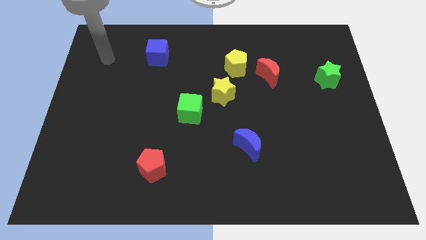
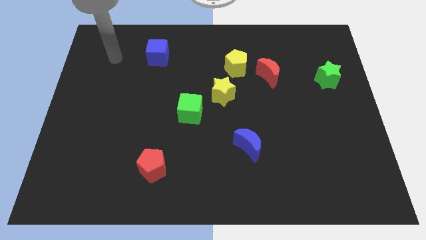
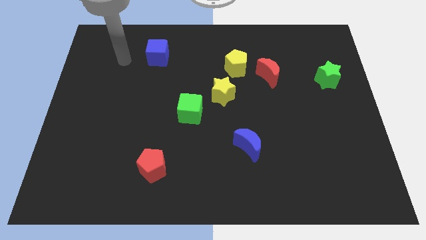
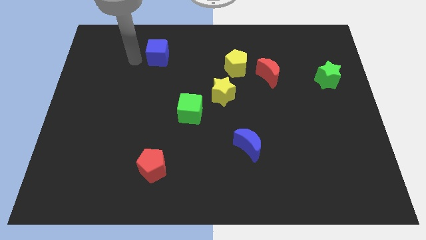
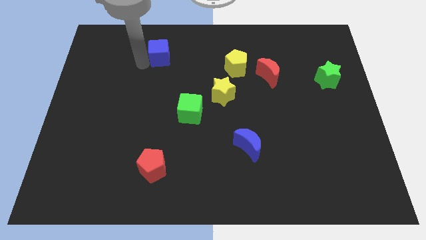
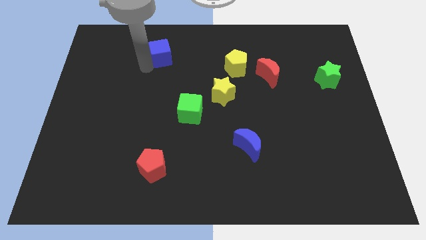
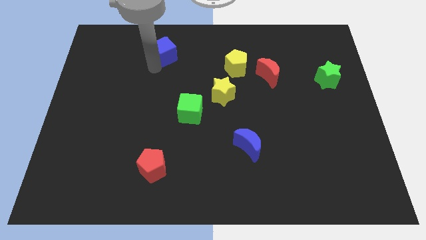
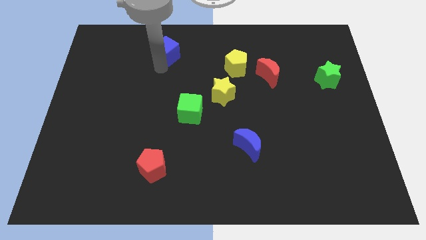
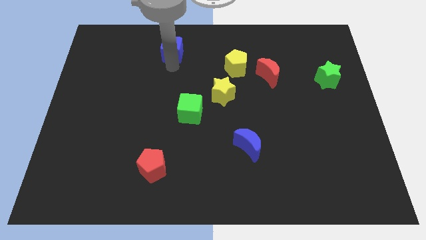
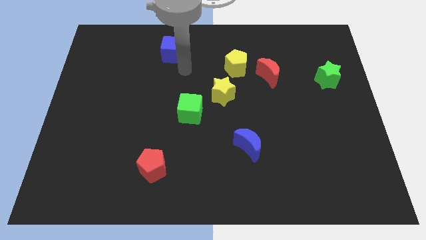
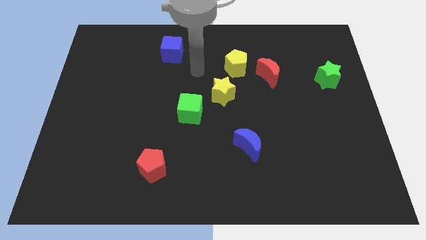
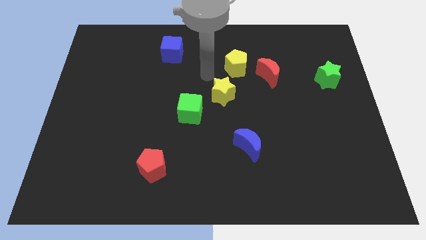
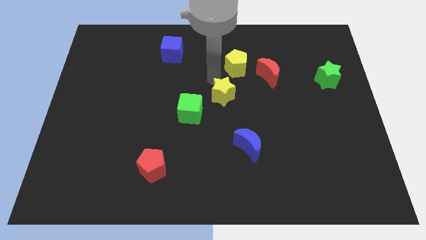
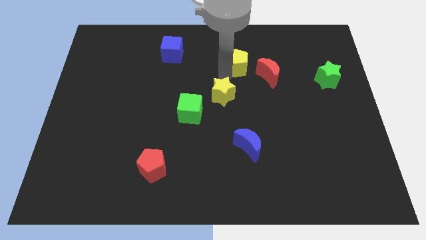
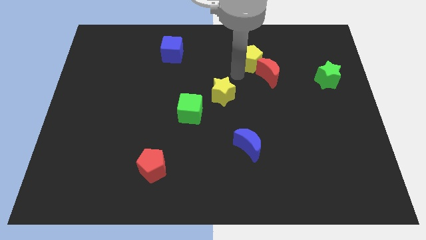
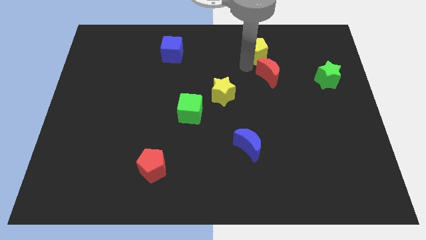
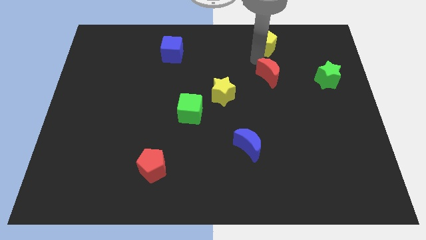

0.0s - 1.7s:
separate the red moon from the yellow pentagon

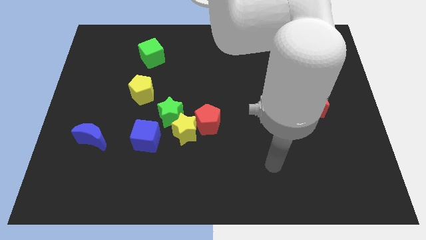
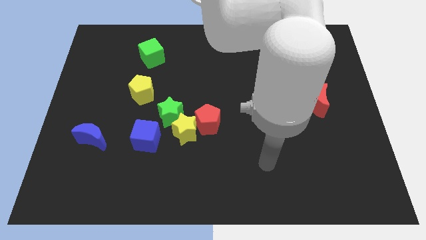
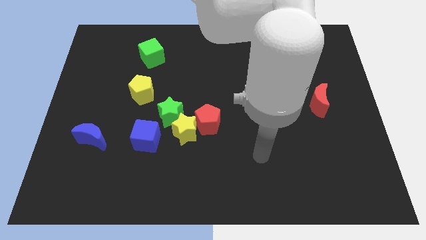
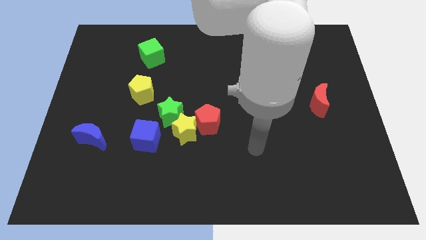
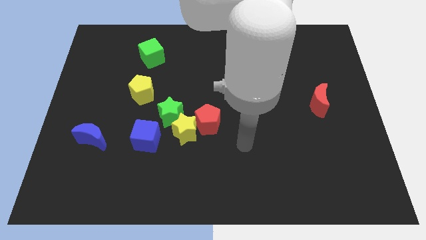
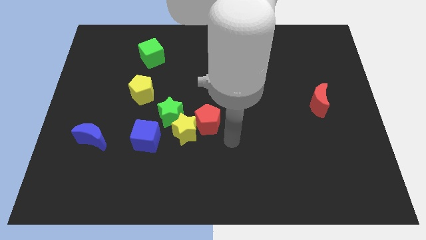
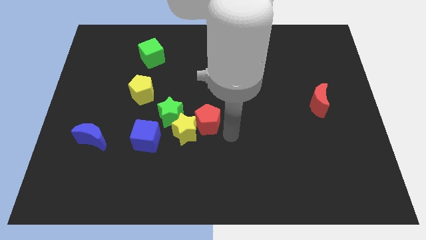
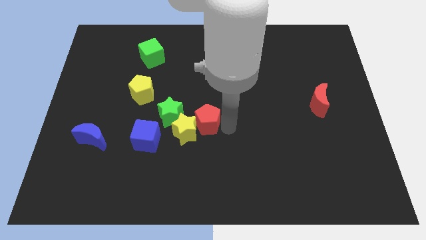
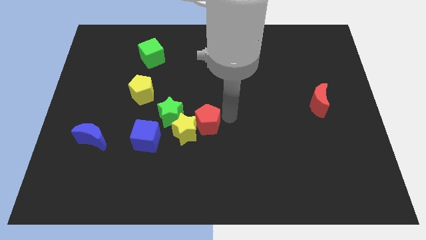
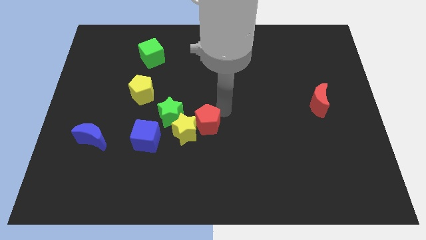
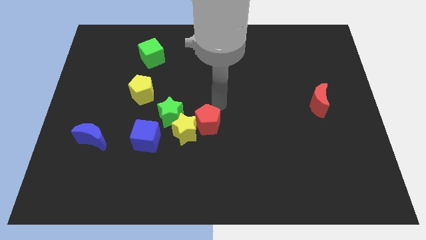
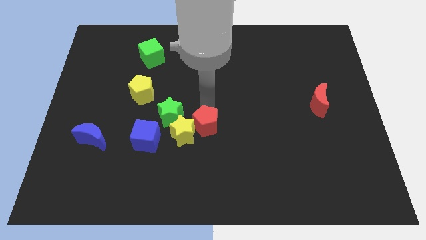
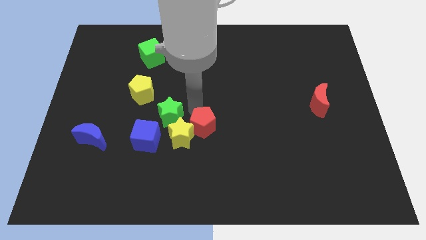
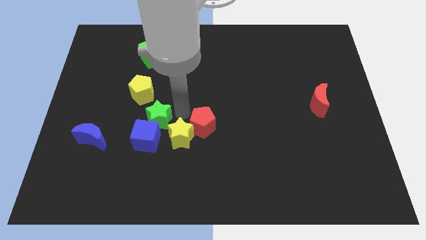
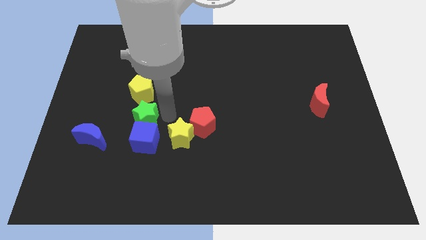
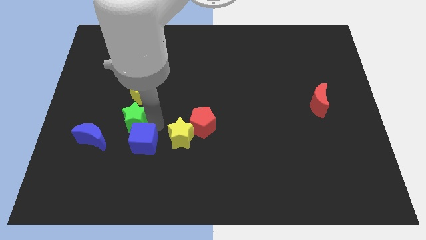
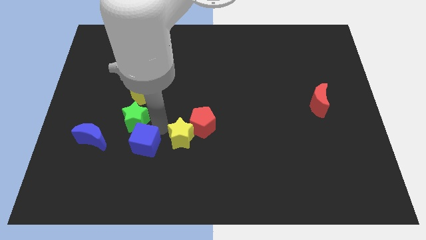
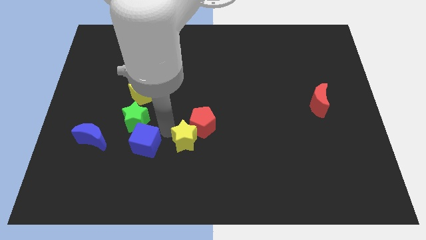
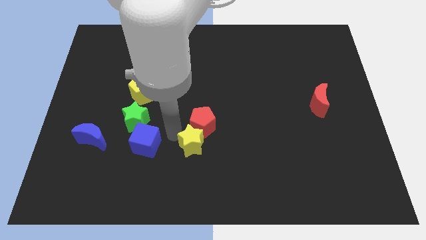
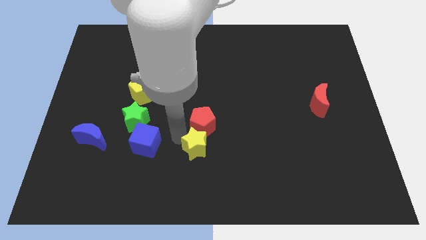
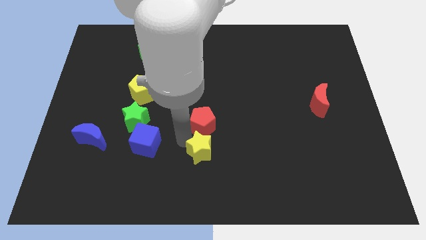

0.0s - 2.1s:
separate the yellow star from the group of blocks

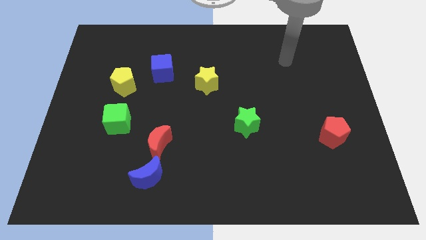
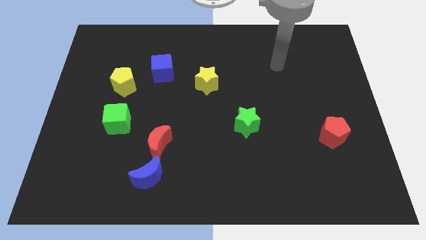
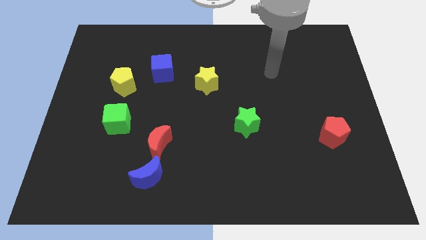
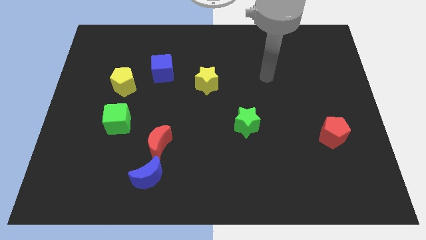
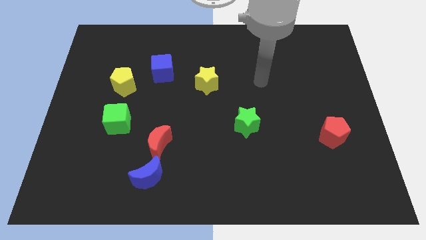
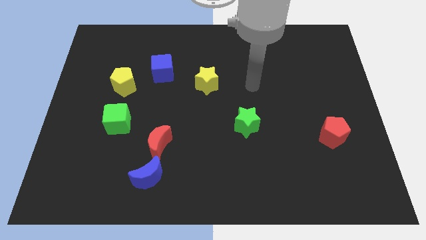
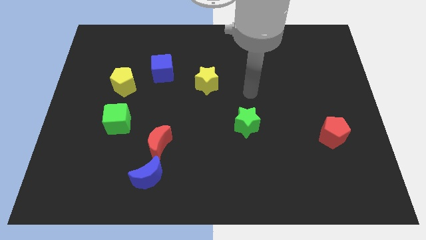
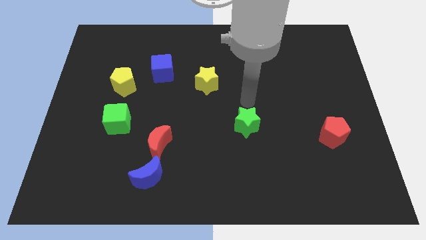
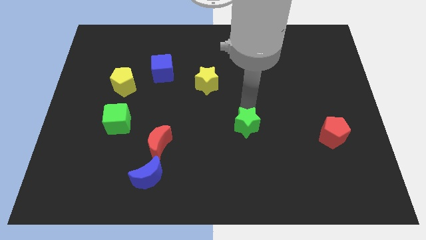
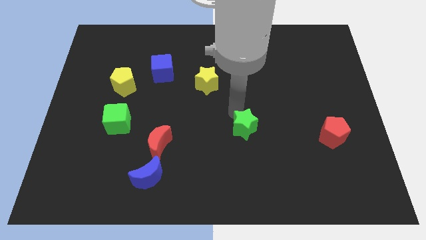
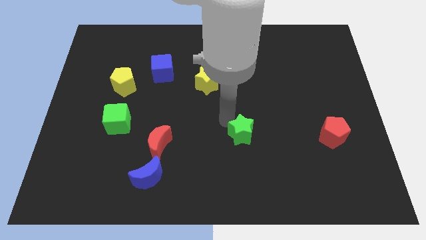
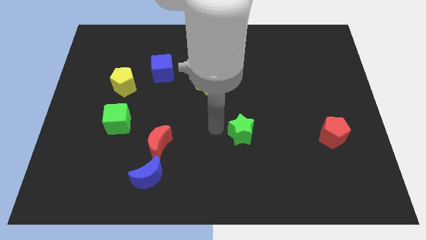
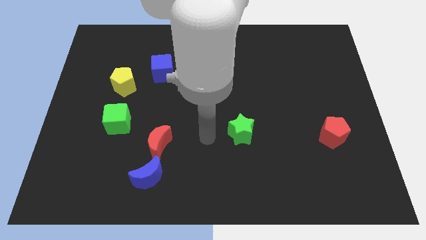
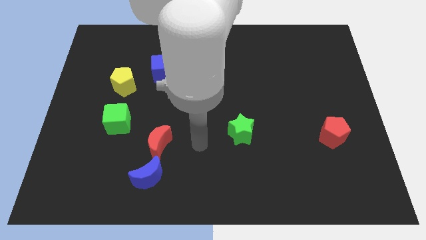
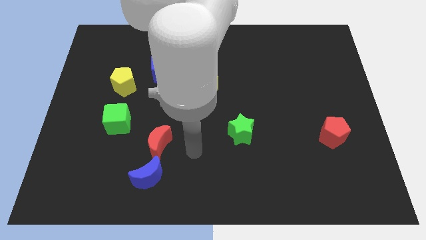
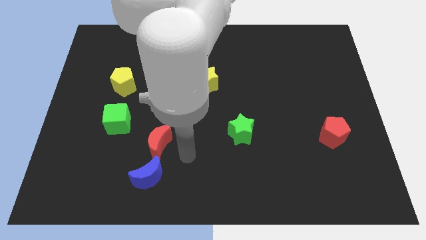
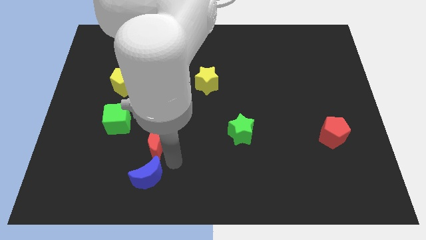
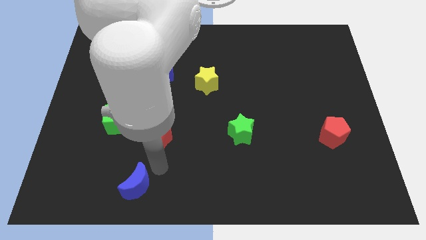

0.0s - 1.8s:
separate the red moon from the blue moon

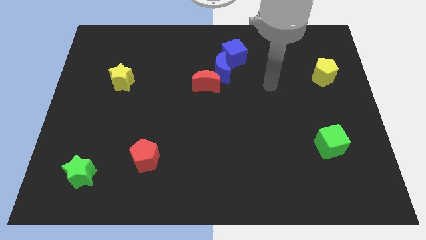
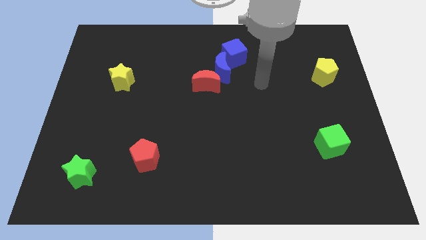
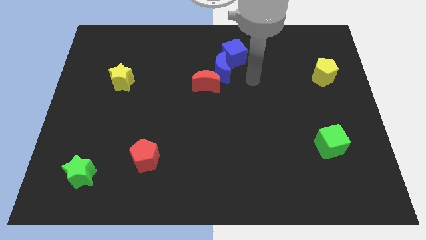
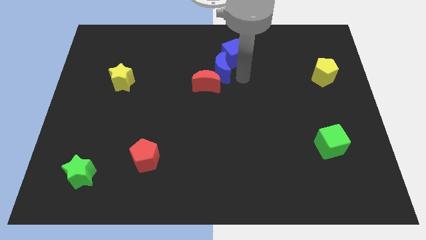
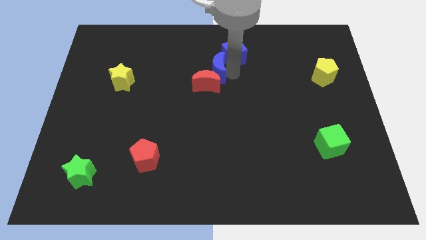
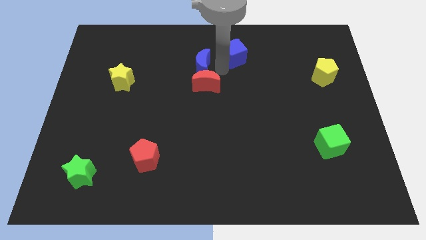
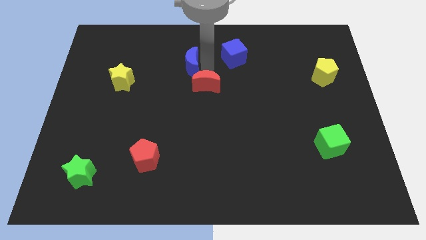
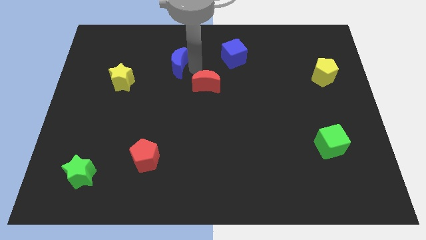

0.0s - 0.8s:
move the red moon away from the blue moon

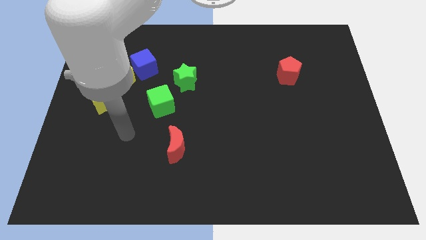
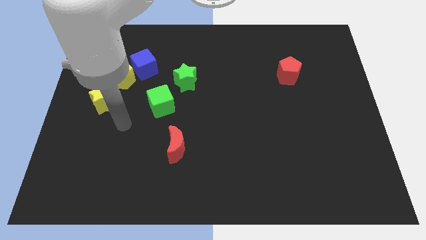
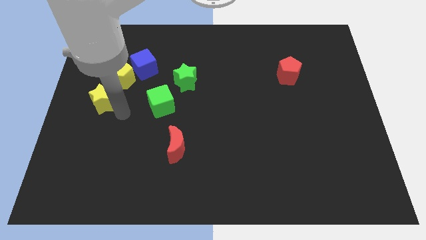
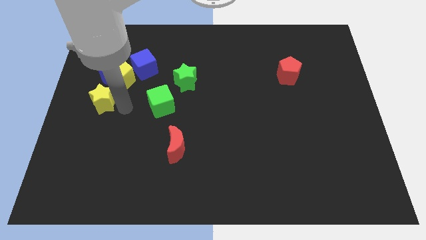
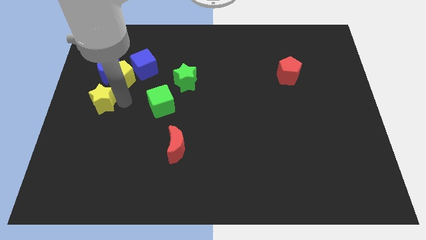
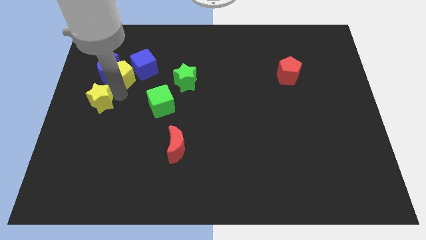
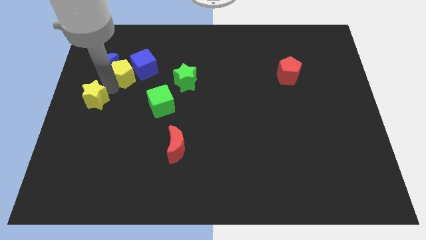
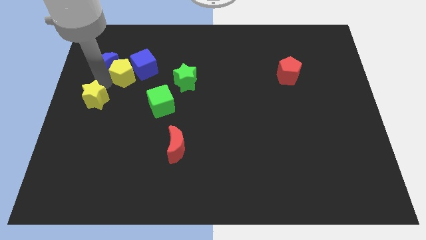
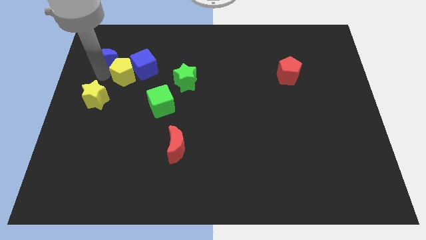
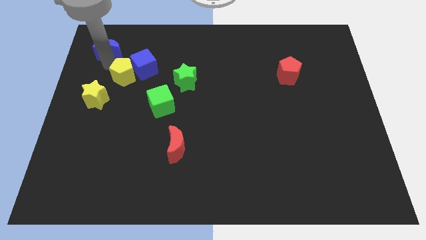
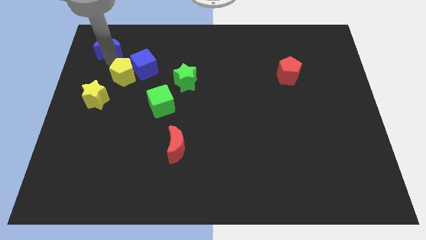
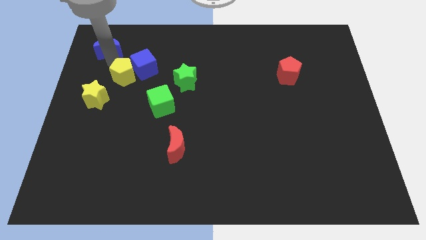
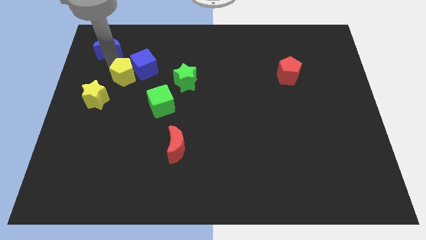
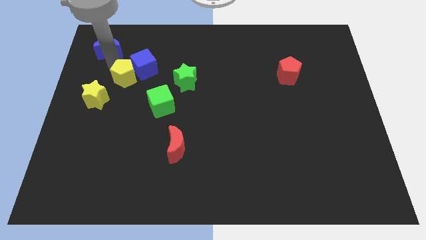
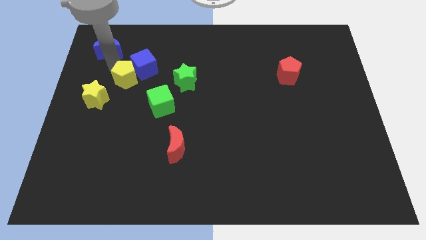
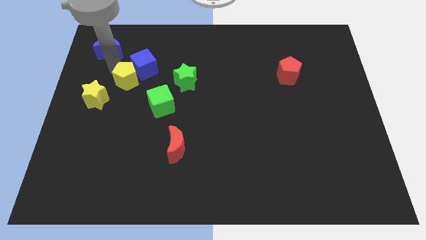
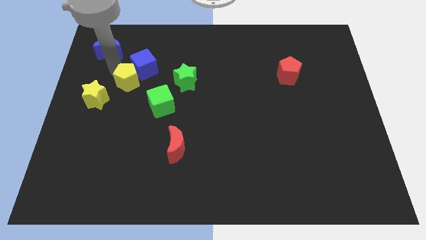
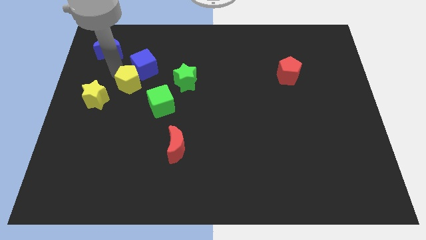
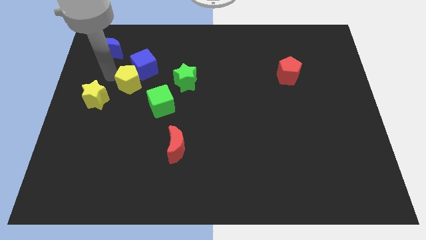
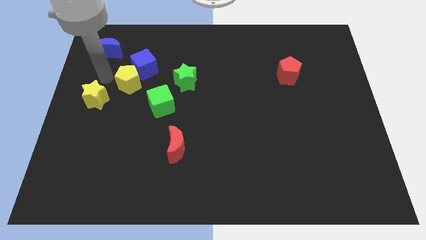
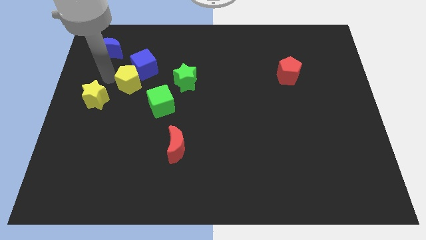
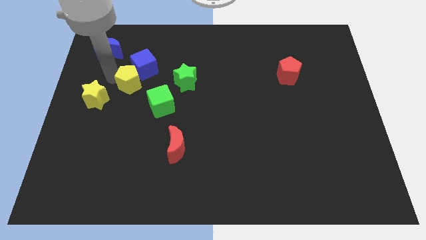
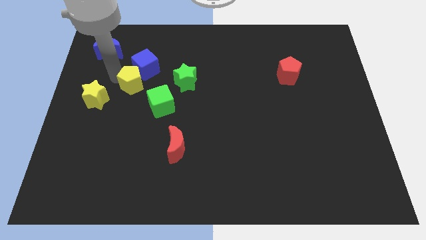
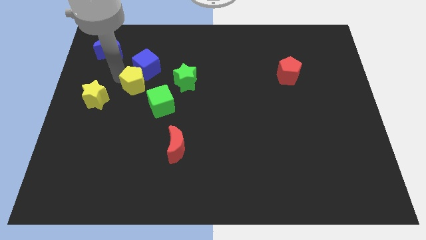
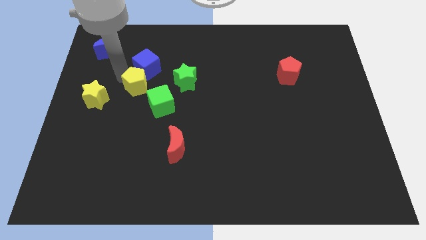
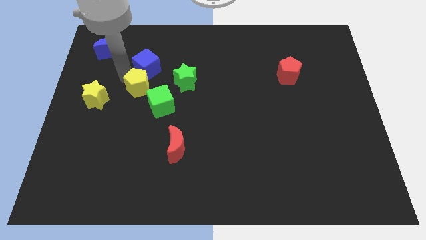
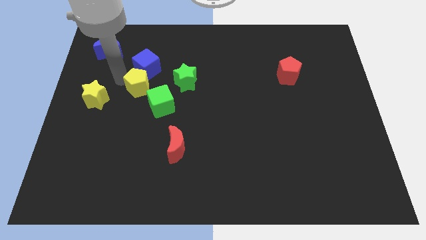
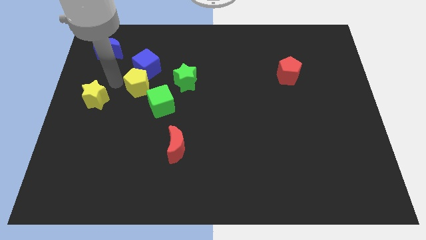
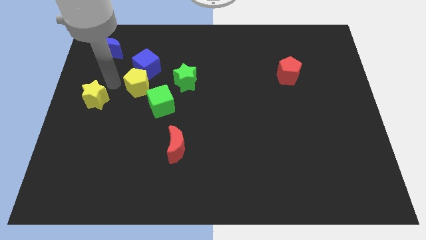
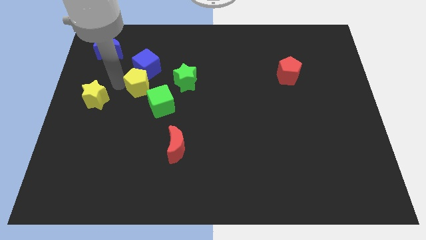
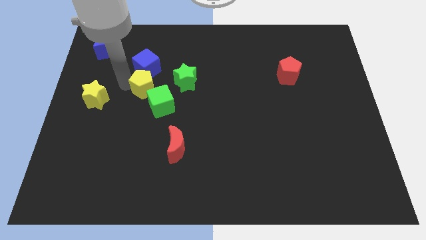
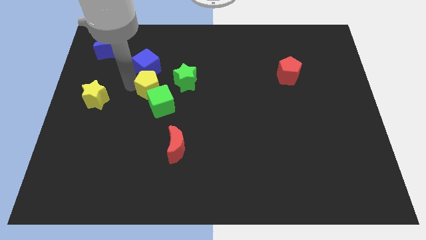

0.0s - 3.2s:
pull the yellow pentagon apart from the group of blocks
